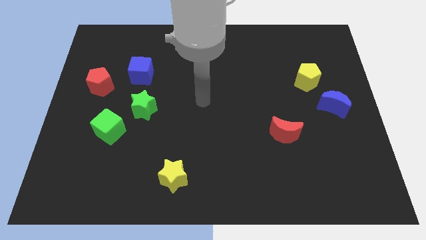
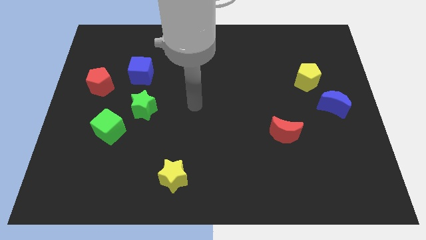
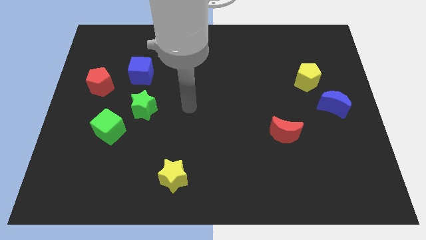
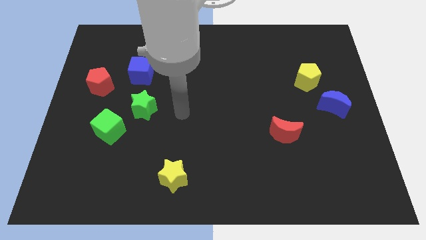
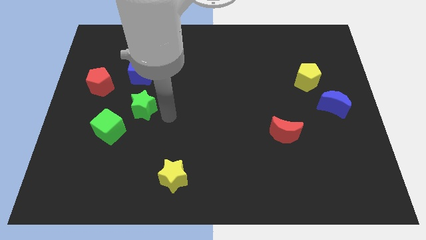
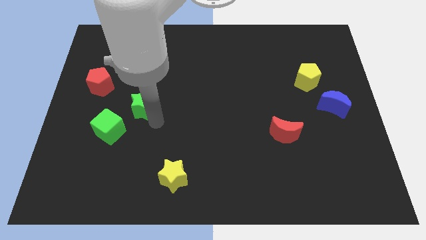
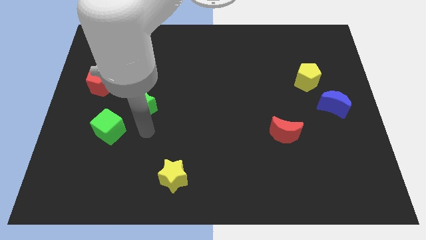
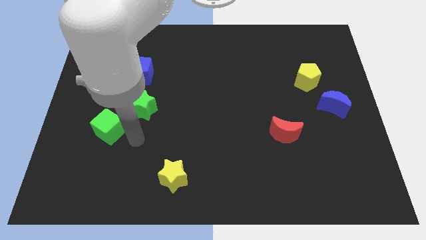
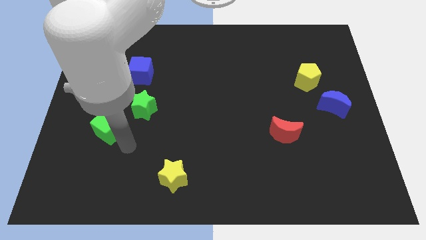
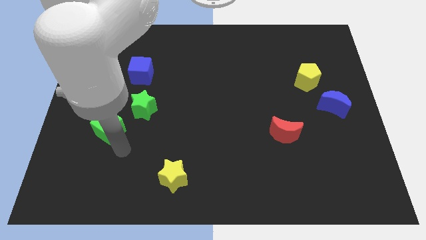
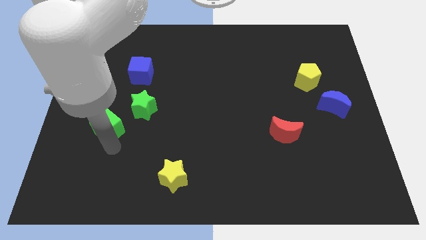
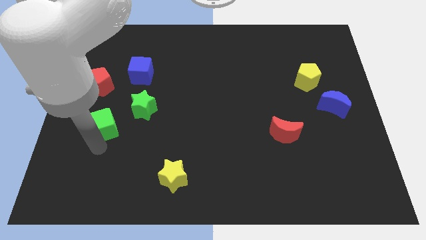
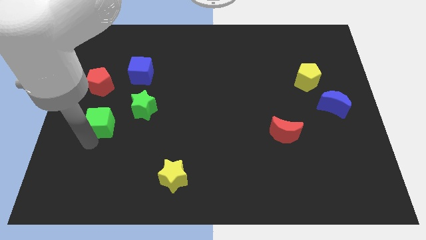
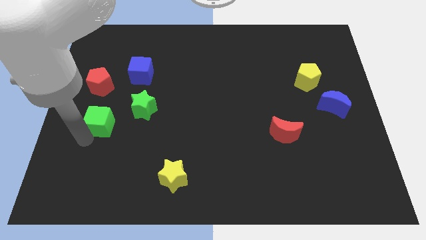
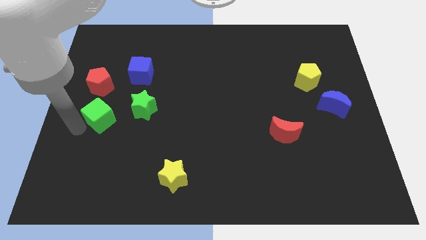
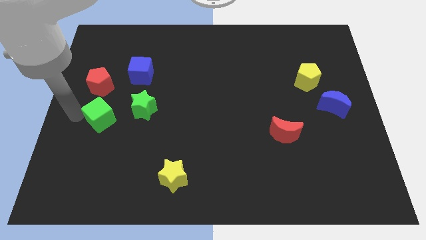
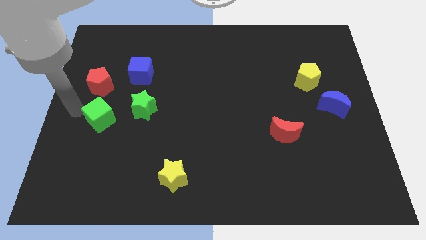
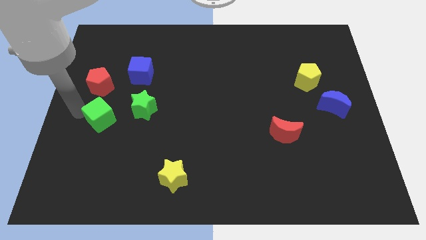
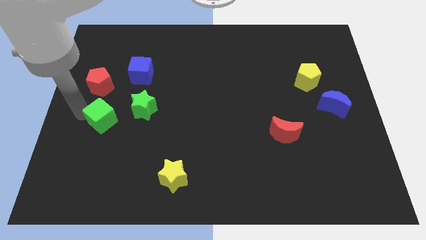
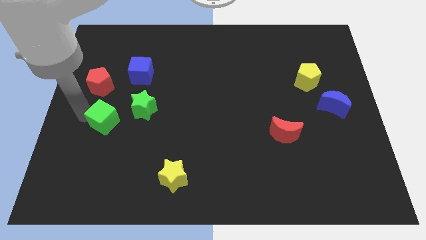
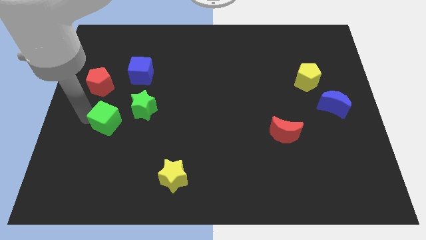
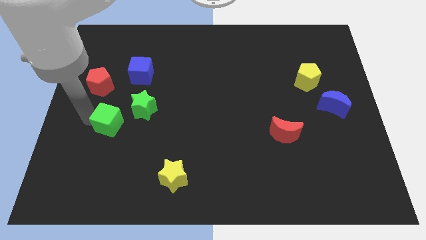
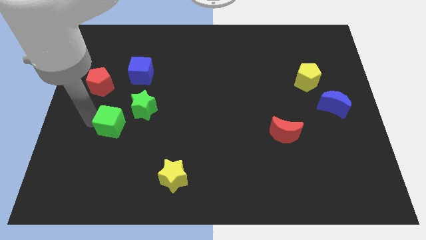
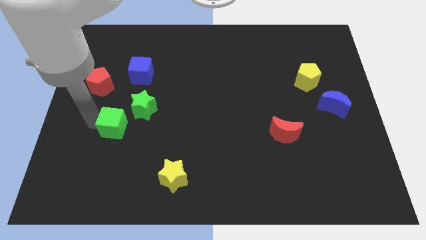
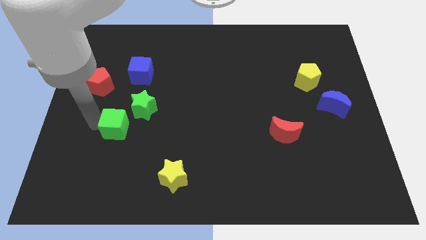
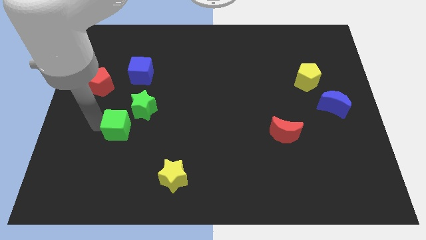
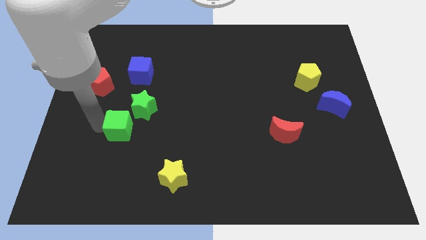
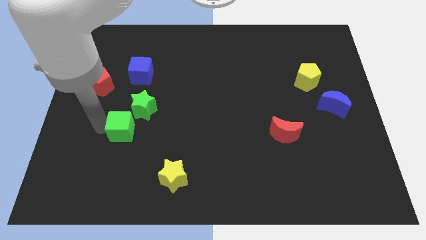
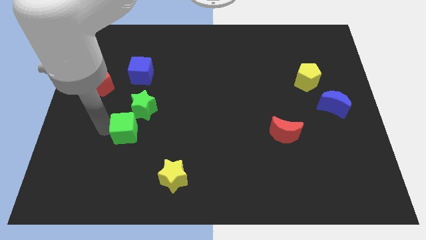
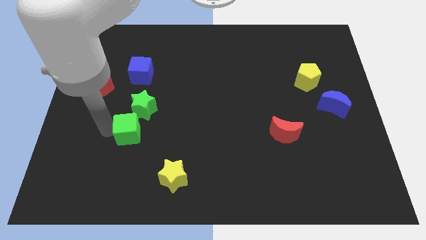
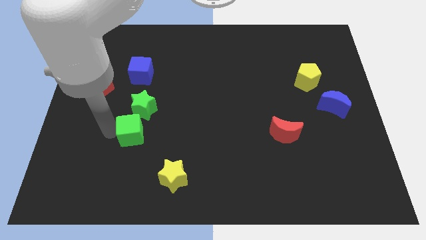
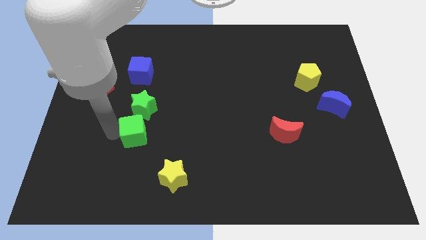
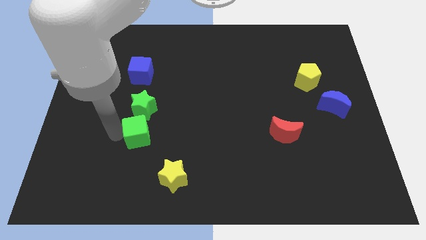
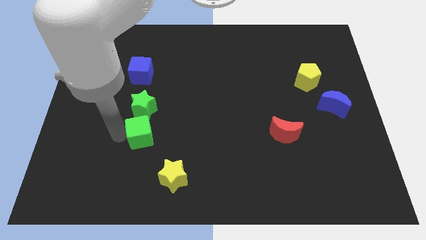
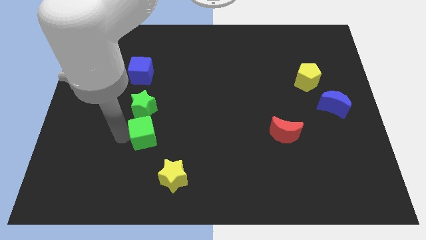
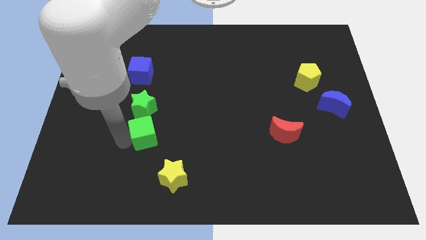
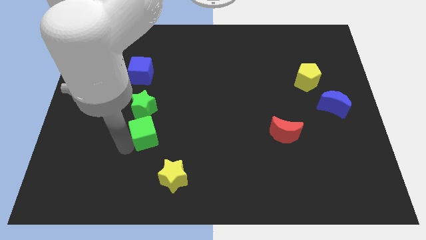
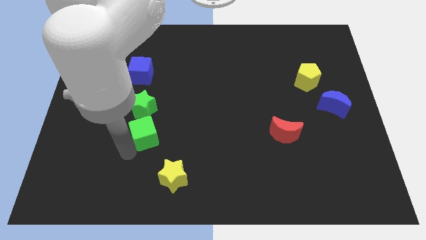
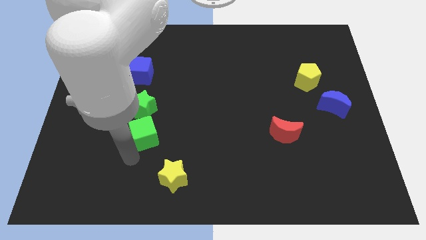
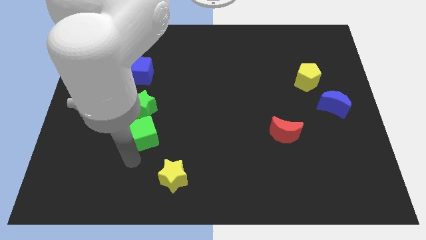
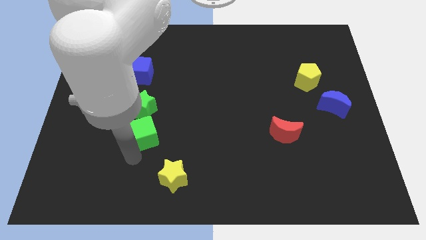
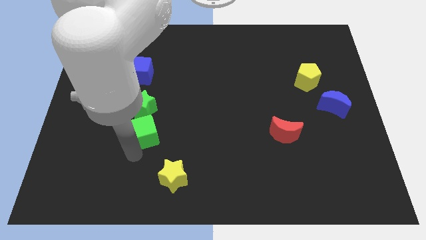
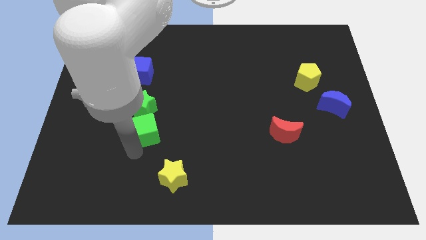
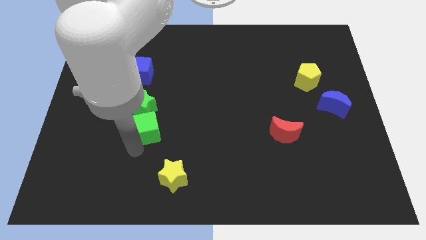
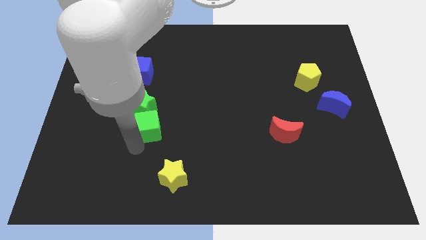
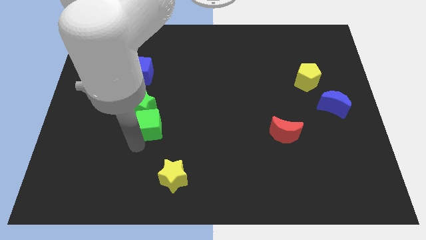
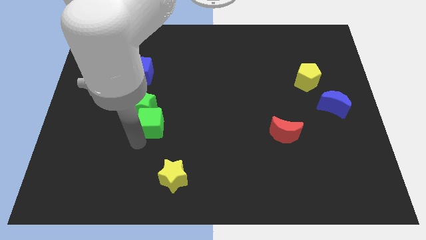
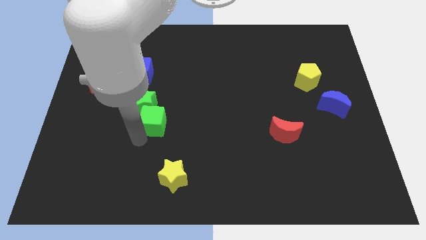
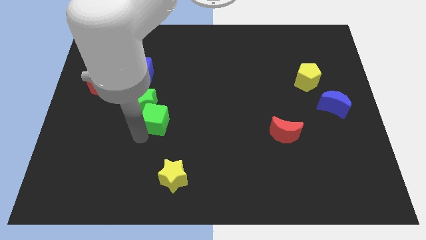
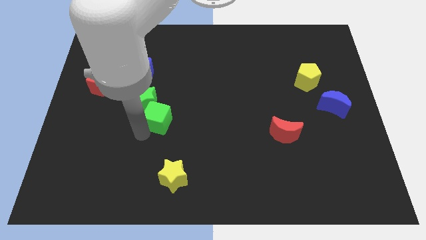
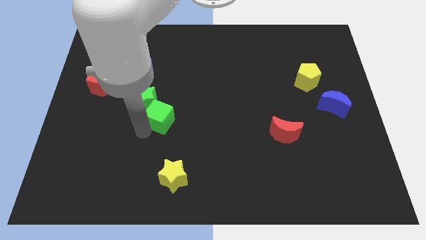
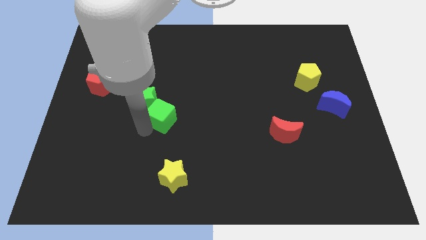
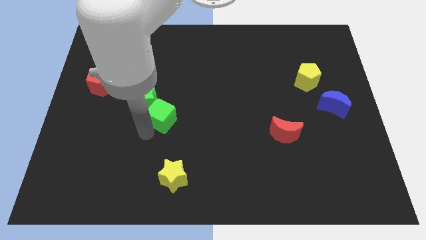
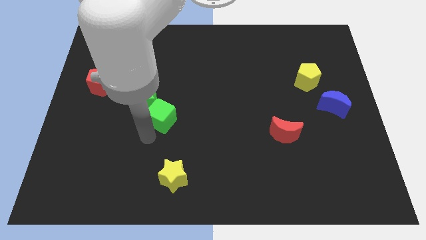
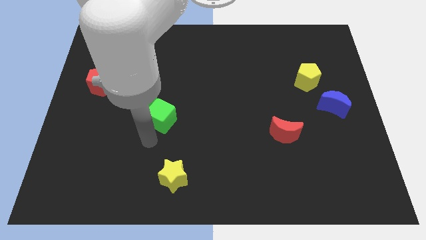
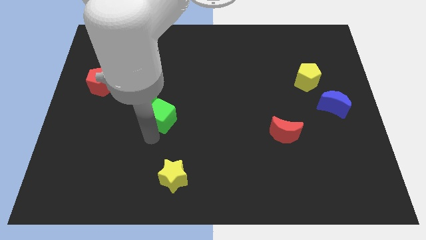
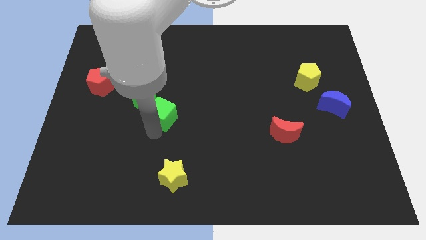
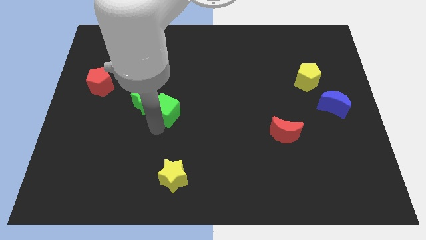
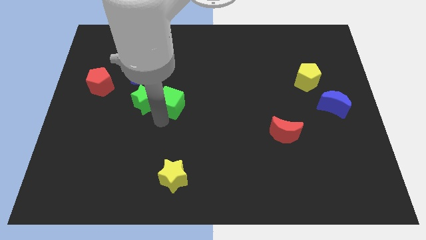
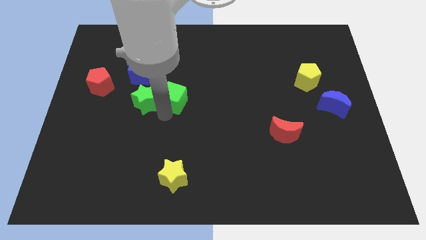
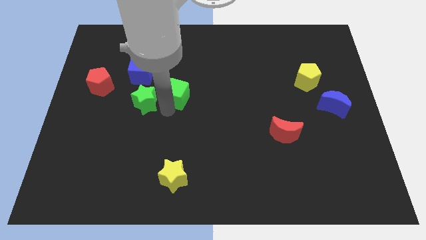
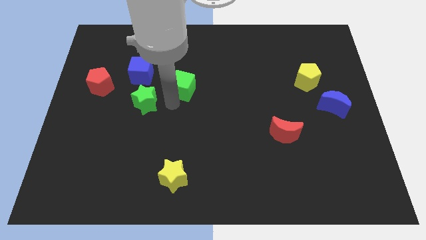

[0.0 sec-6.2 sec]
slide the green cube upwards and to the right diagonally

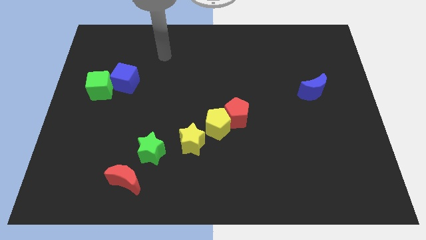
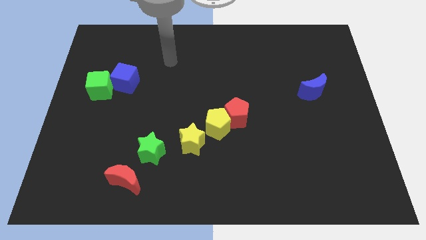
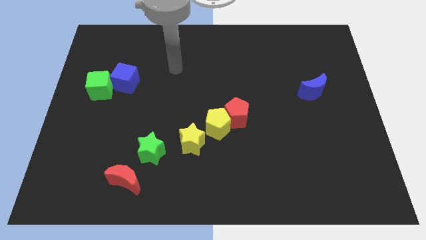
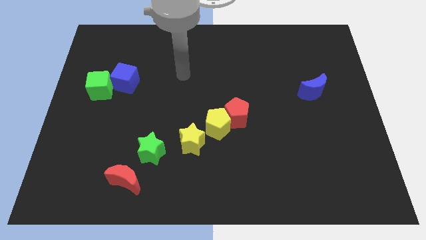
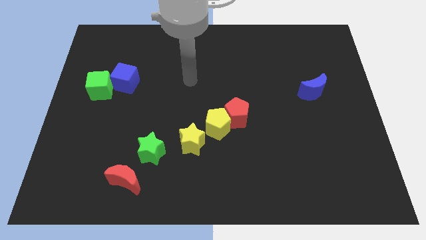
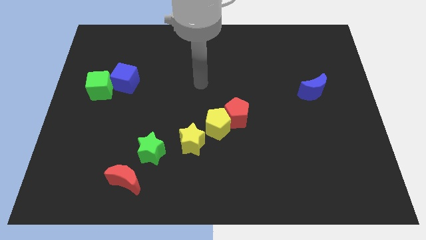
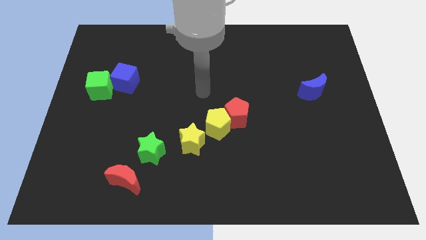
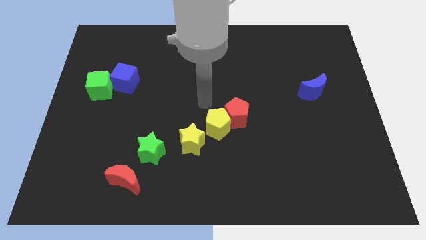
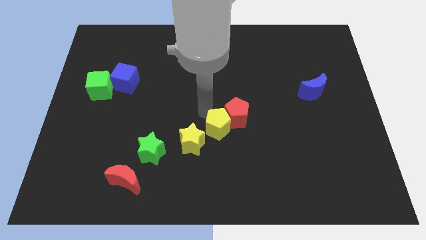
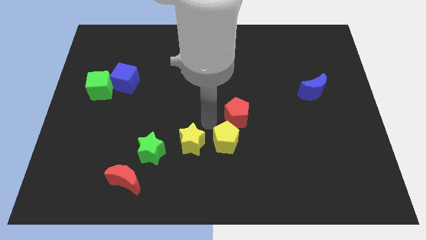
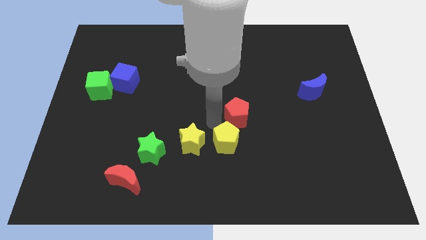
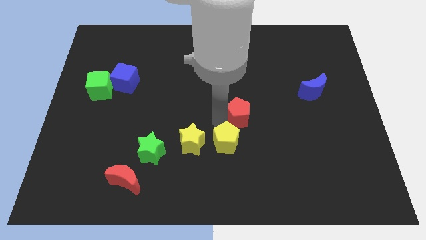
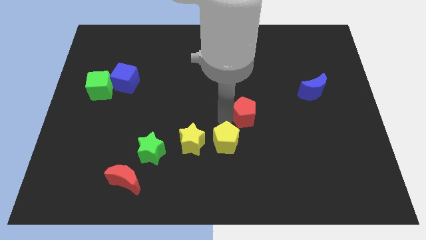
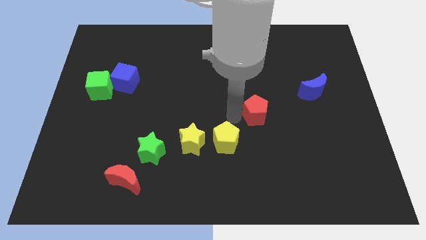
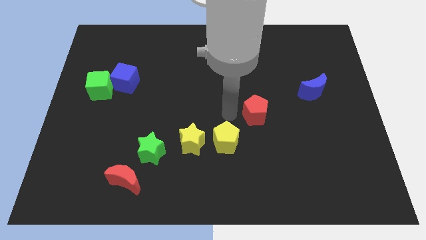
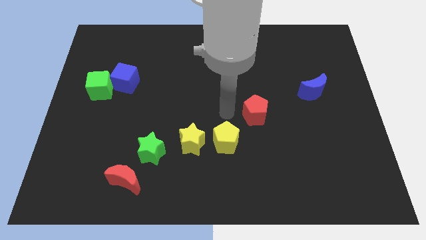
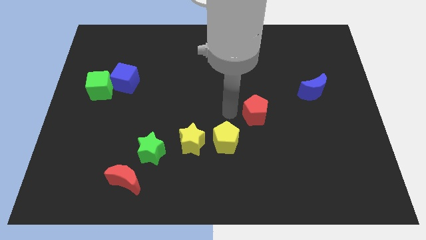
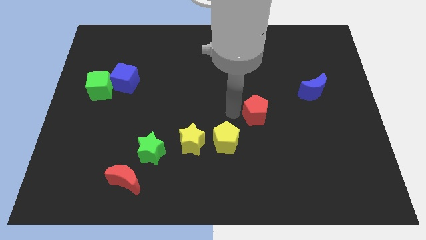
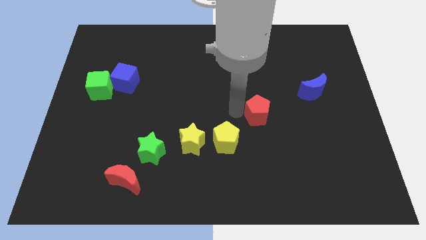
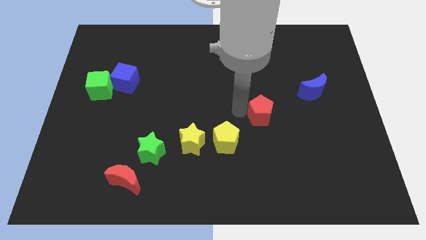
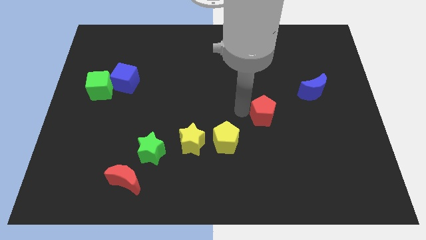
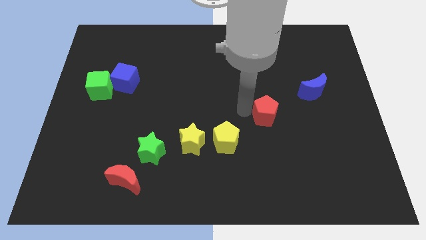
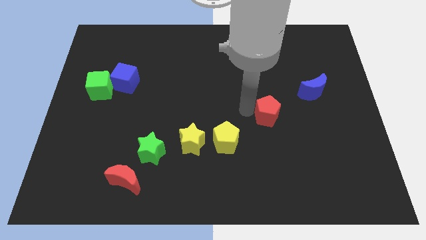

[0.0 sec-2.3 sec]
move the red pentagon a little to the right
